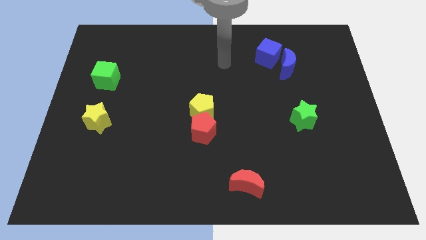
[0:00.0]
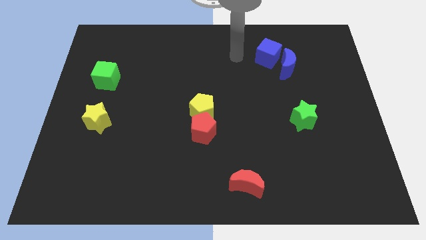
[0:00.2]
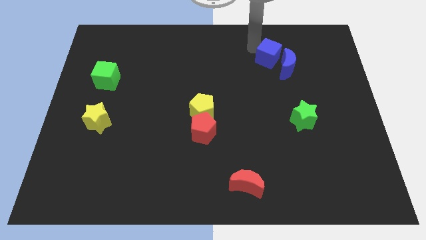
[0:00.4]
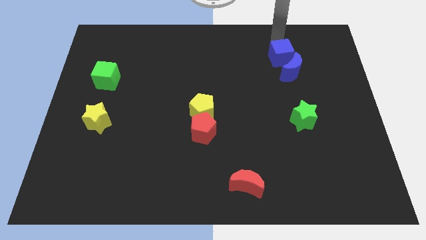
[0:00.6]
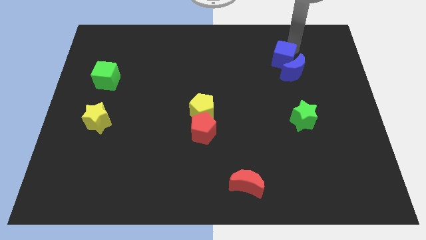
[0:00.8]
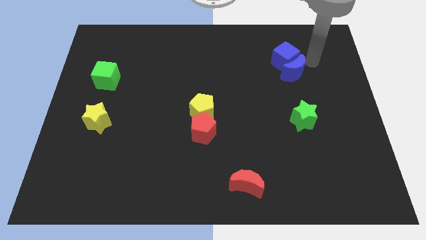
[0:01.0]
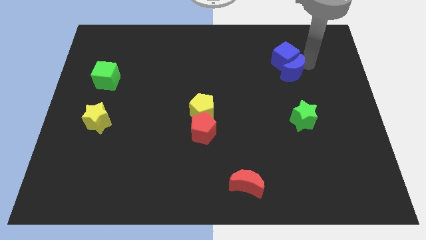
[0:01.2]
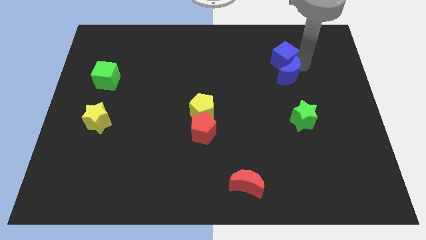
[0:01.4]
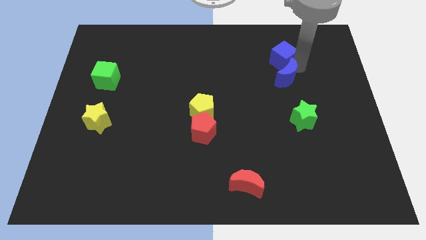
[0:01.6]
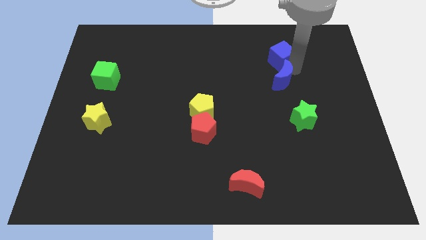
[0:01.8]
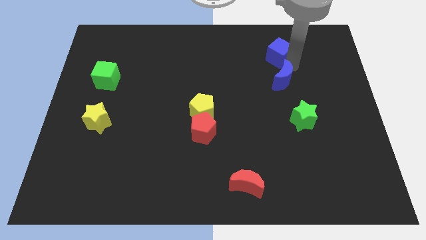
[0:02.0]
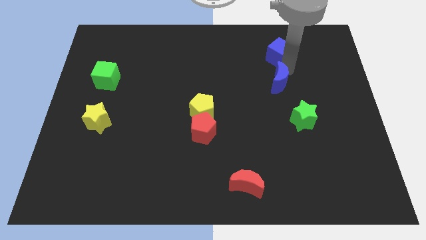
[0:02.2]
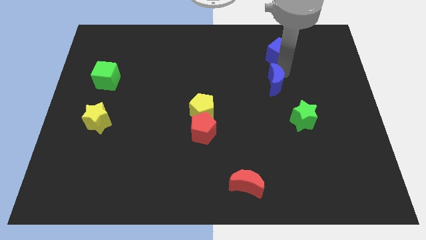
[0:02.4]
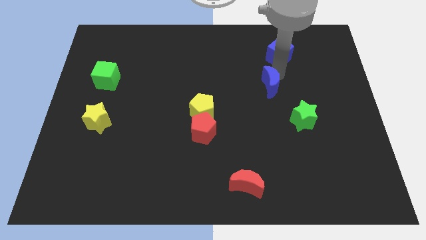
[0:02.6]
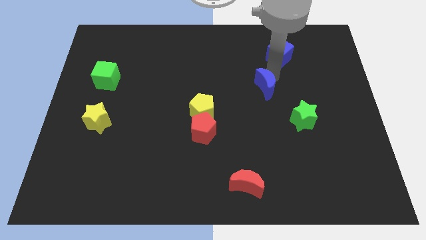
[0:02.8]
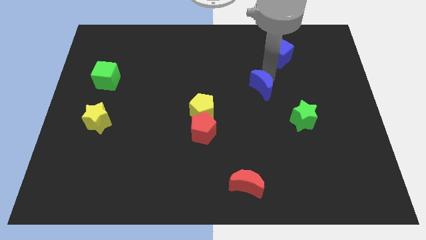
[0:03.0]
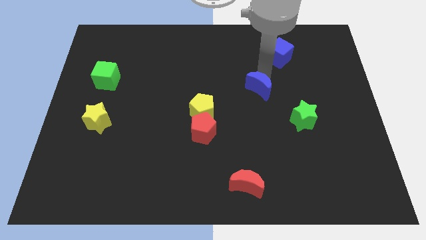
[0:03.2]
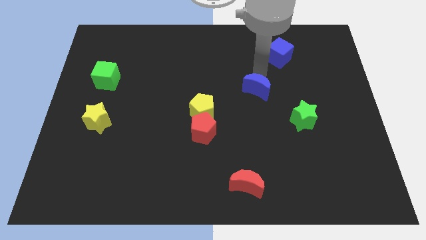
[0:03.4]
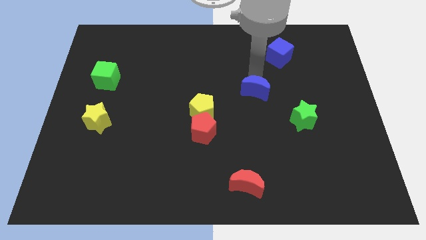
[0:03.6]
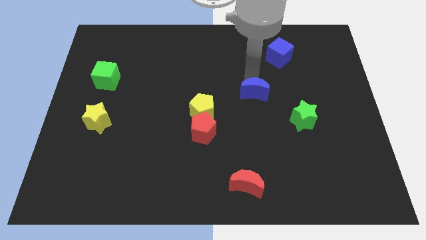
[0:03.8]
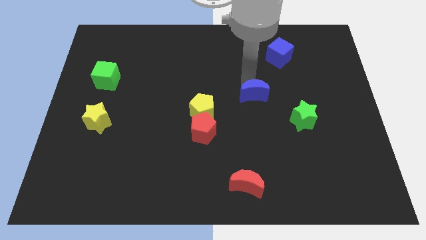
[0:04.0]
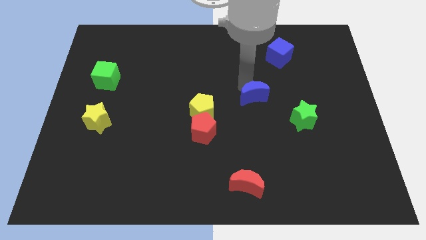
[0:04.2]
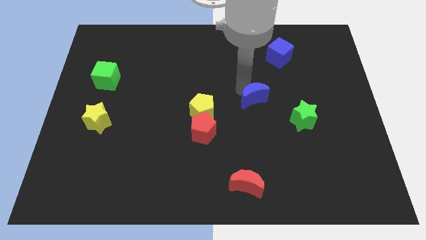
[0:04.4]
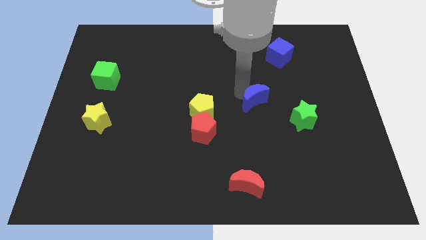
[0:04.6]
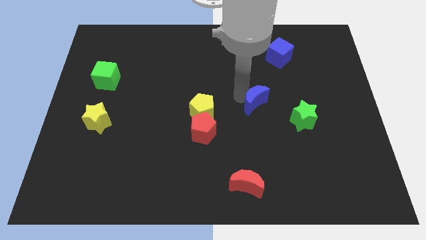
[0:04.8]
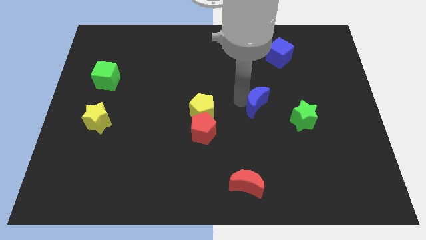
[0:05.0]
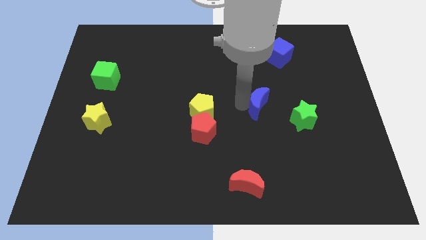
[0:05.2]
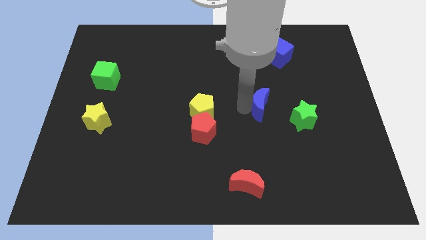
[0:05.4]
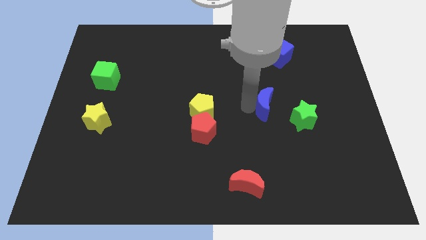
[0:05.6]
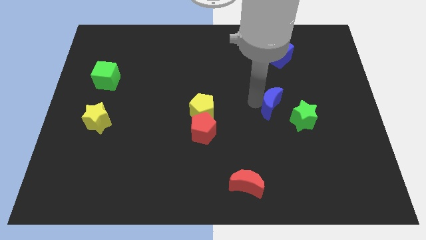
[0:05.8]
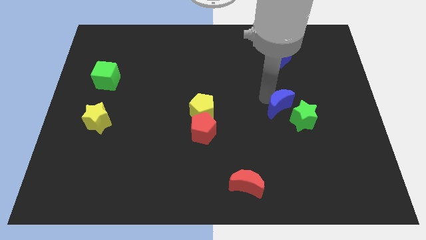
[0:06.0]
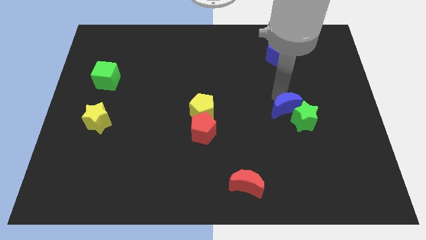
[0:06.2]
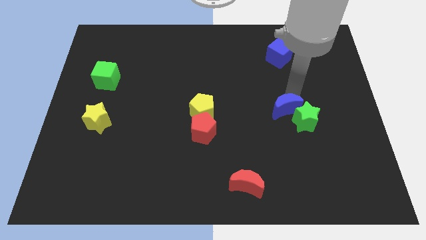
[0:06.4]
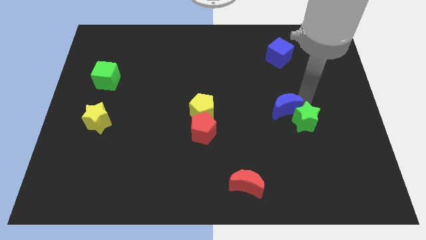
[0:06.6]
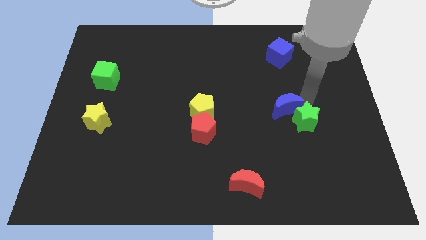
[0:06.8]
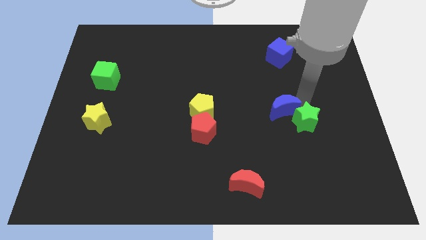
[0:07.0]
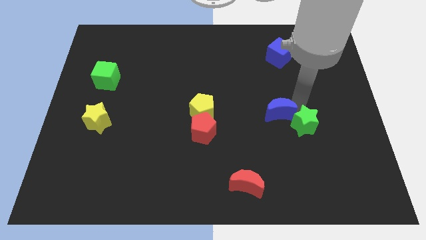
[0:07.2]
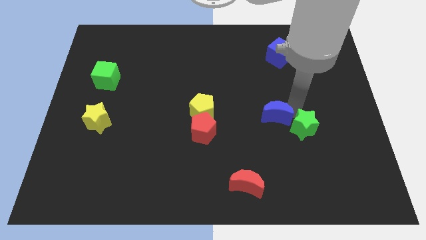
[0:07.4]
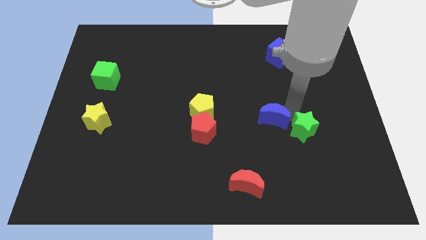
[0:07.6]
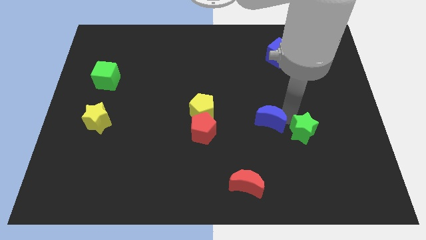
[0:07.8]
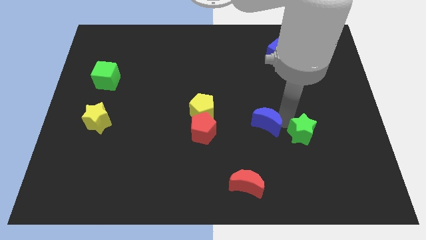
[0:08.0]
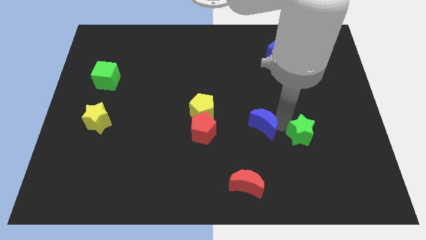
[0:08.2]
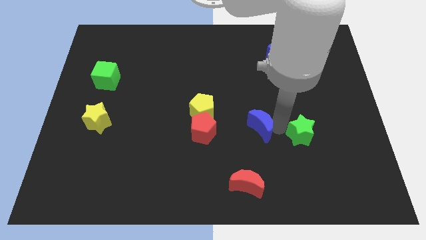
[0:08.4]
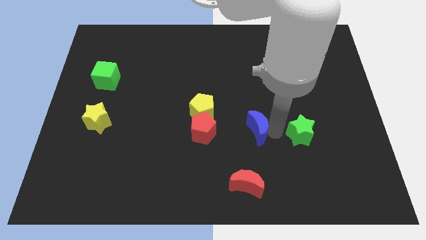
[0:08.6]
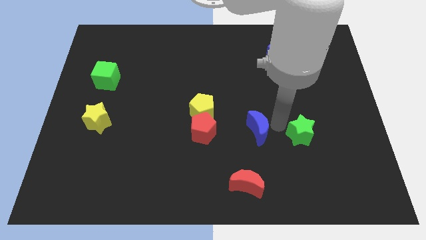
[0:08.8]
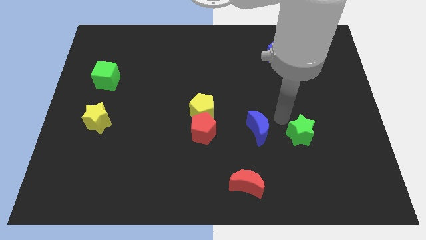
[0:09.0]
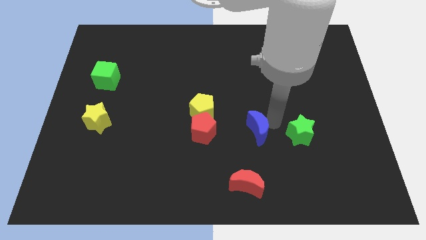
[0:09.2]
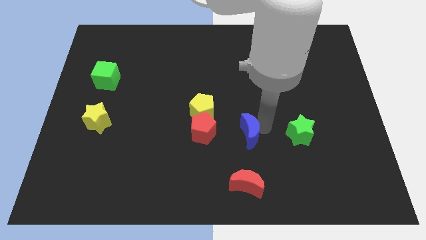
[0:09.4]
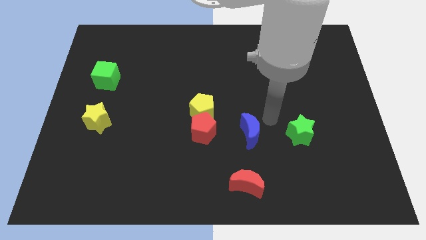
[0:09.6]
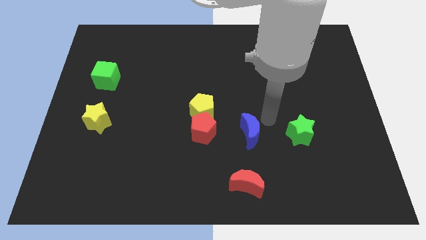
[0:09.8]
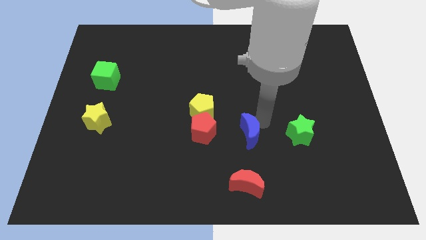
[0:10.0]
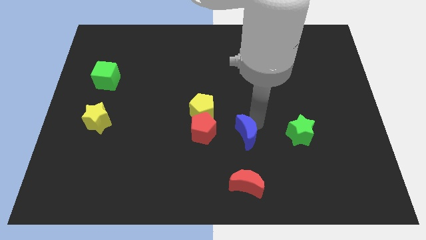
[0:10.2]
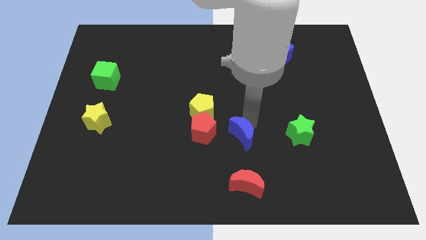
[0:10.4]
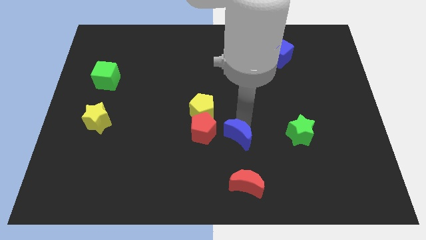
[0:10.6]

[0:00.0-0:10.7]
slide the blue moon to the bottom right side of the red pentagon

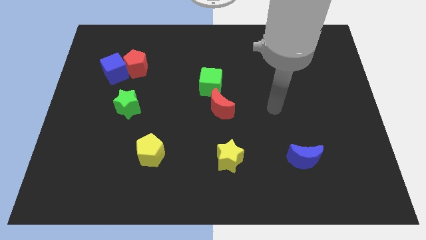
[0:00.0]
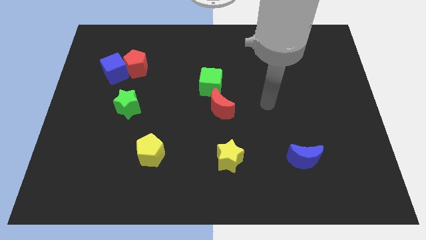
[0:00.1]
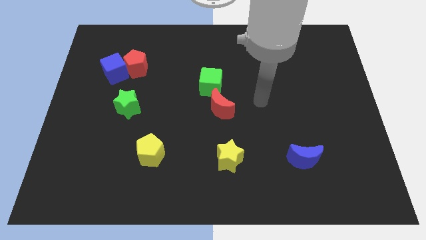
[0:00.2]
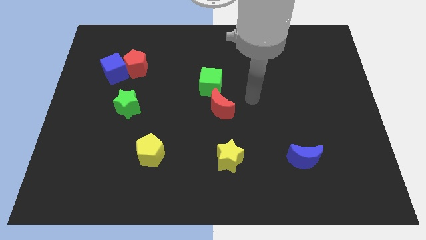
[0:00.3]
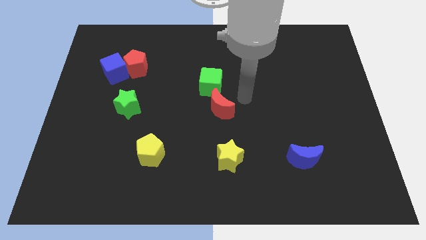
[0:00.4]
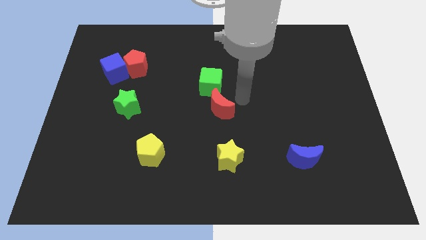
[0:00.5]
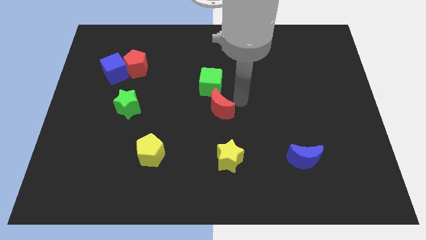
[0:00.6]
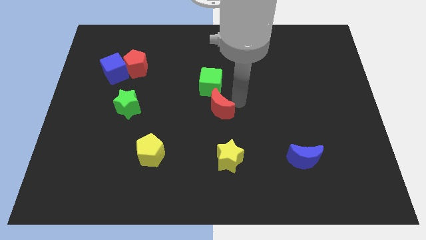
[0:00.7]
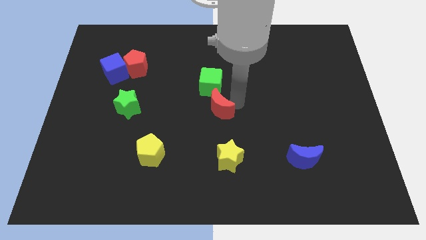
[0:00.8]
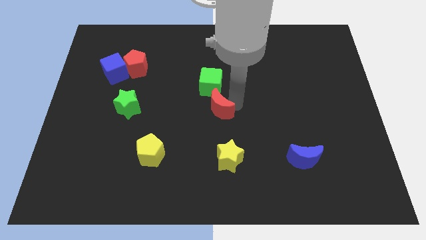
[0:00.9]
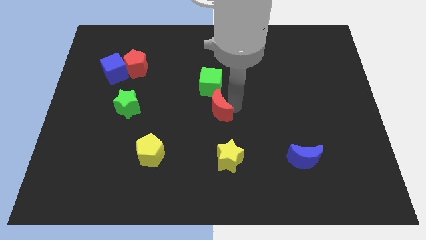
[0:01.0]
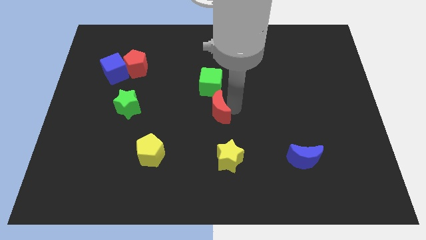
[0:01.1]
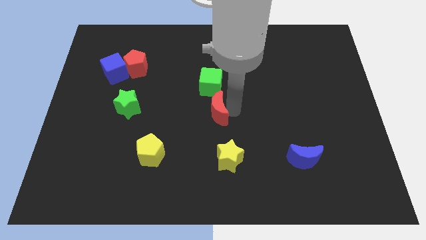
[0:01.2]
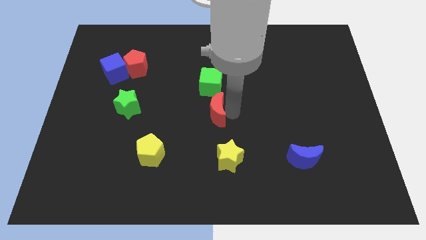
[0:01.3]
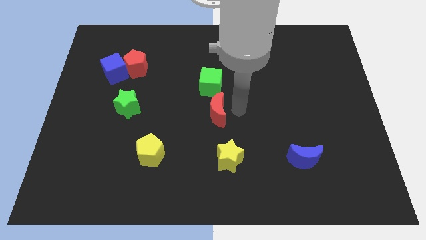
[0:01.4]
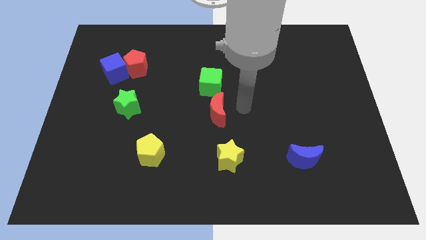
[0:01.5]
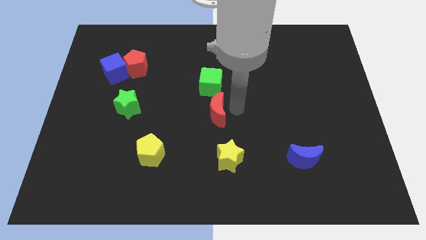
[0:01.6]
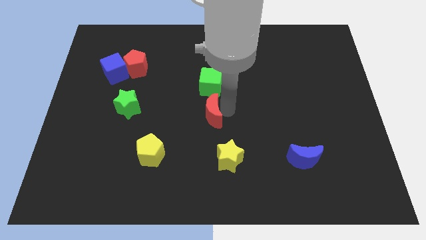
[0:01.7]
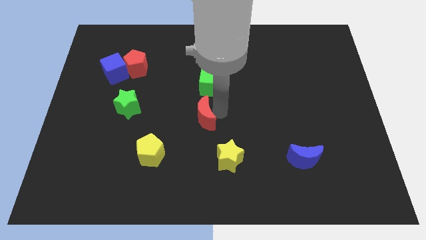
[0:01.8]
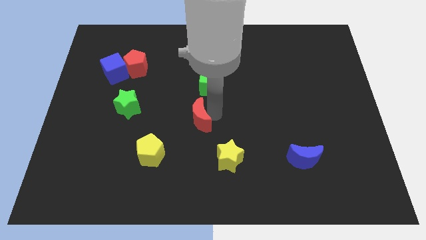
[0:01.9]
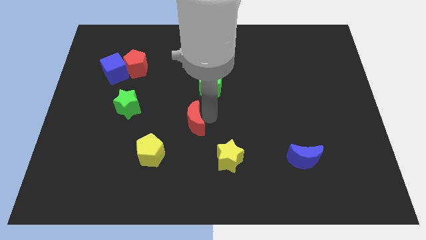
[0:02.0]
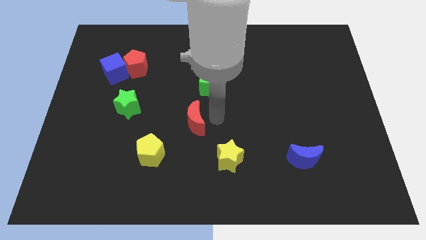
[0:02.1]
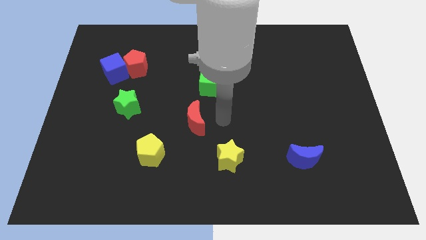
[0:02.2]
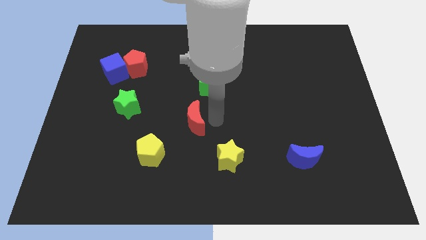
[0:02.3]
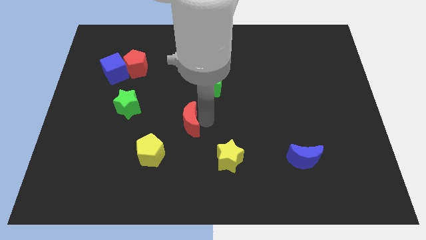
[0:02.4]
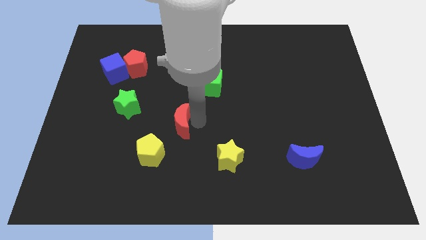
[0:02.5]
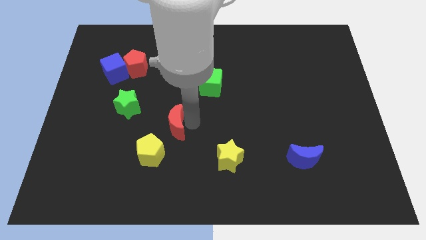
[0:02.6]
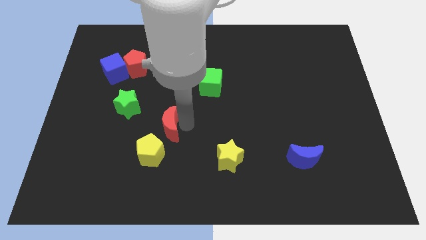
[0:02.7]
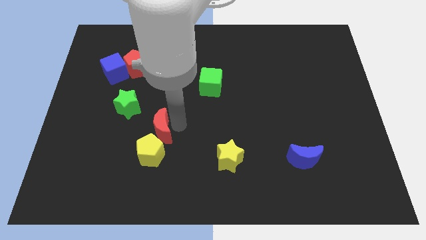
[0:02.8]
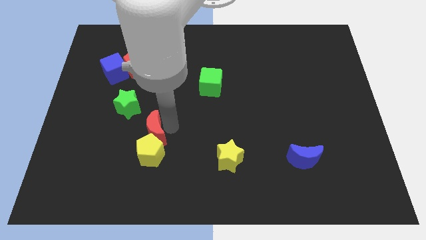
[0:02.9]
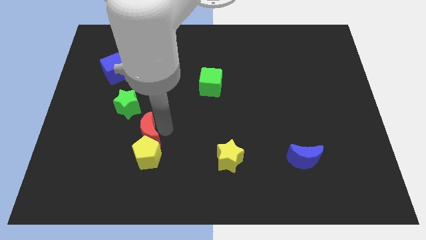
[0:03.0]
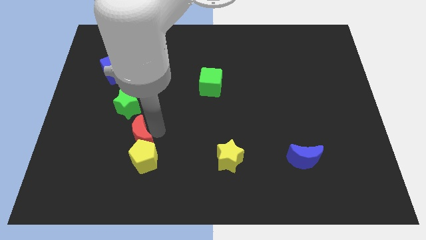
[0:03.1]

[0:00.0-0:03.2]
move the red moon to the bottom side of the green star
